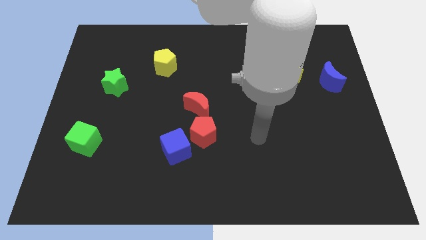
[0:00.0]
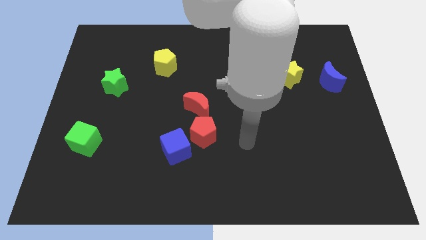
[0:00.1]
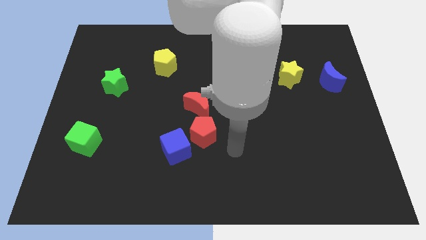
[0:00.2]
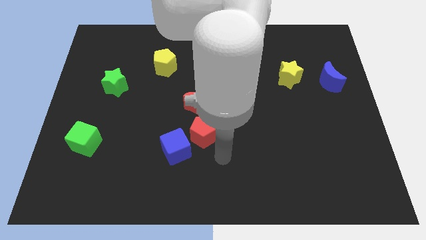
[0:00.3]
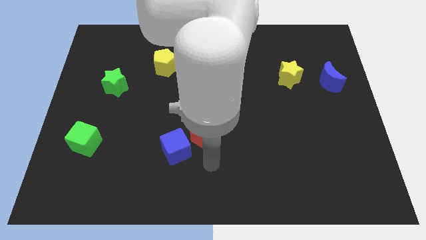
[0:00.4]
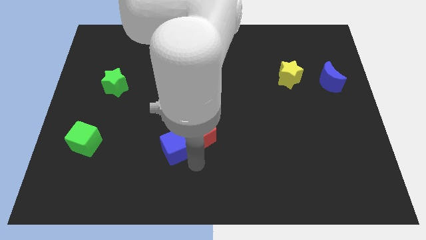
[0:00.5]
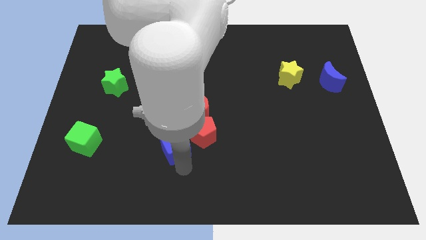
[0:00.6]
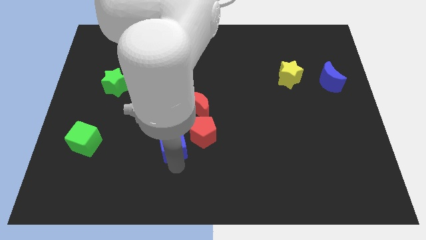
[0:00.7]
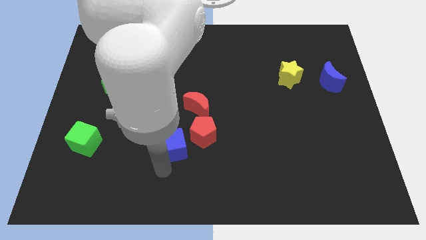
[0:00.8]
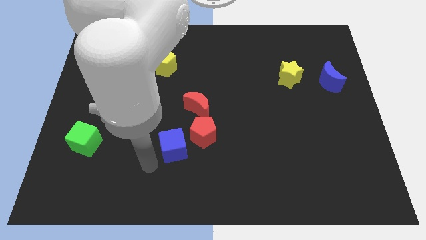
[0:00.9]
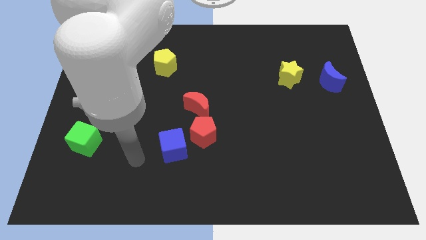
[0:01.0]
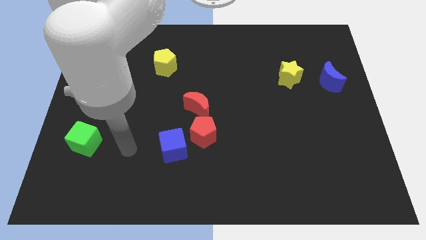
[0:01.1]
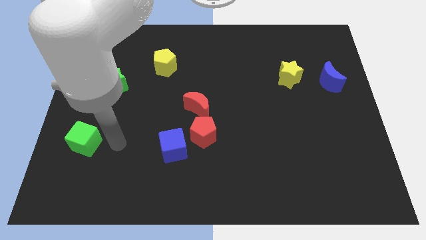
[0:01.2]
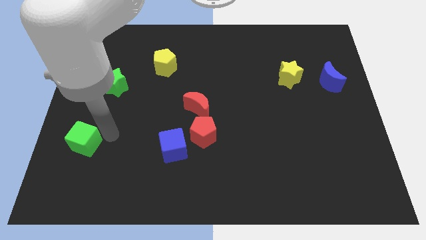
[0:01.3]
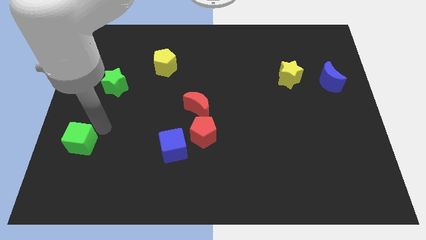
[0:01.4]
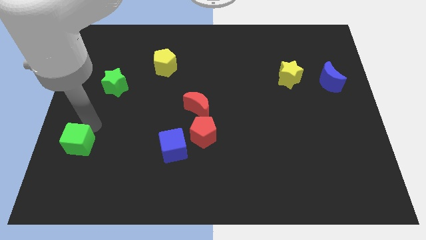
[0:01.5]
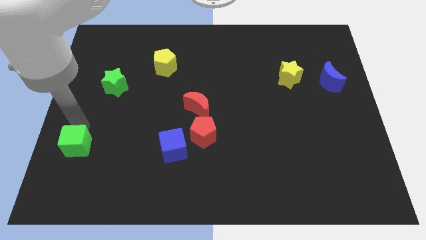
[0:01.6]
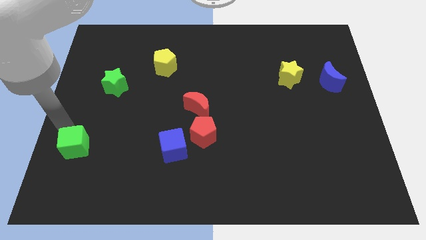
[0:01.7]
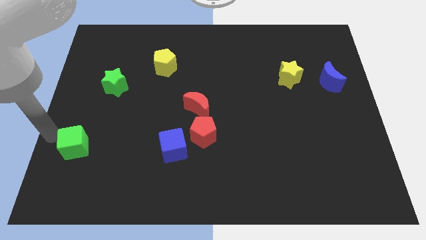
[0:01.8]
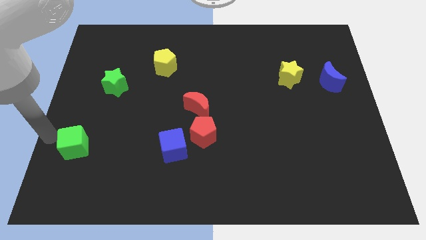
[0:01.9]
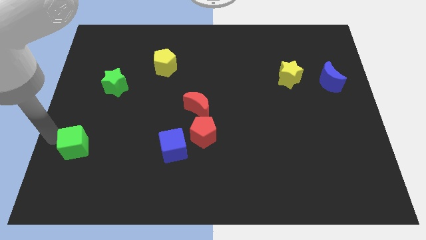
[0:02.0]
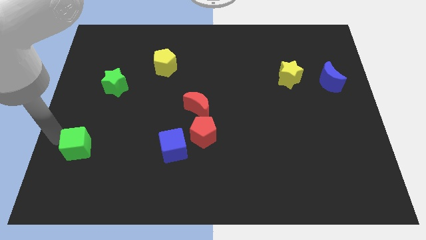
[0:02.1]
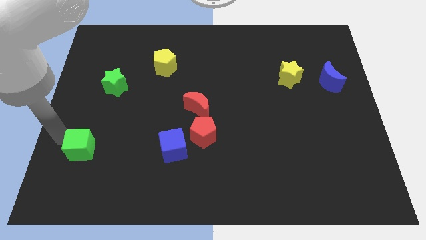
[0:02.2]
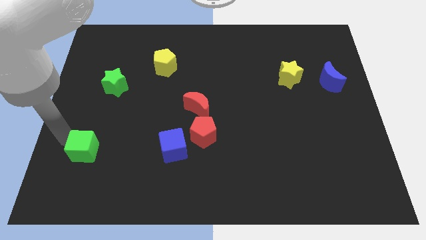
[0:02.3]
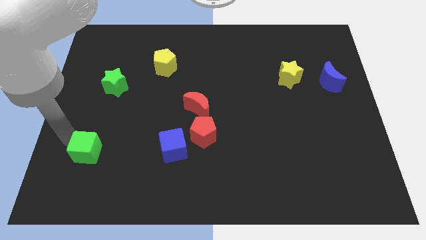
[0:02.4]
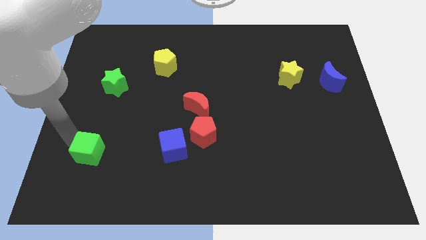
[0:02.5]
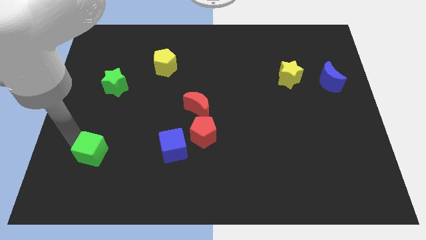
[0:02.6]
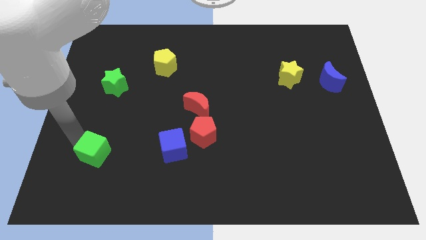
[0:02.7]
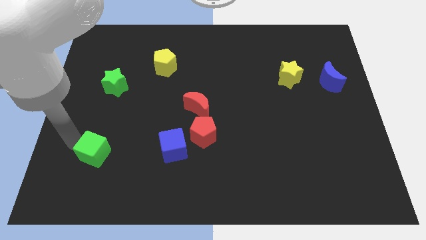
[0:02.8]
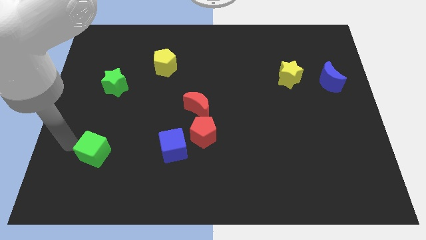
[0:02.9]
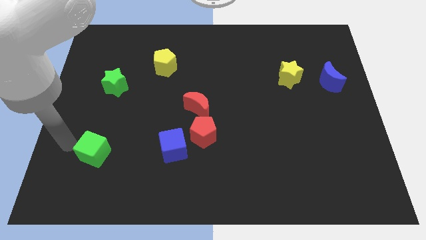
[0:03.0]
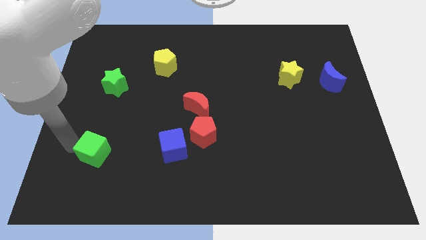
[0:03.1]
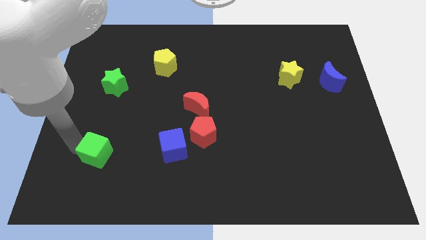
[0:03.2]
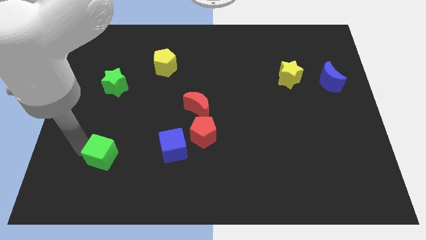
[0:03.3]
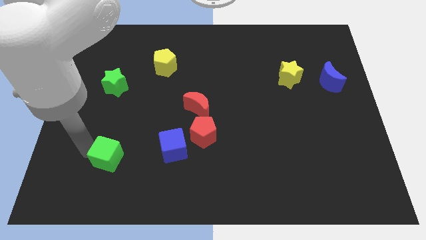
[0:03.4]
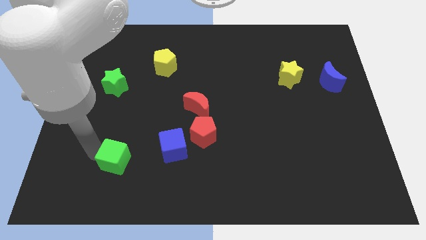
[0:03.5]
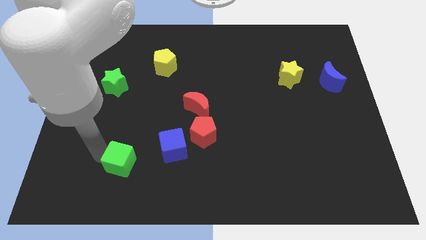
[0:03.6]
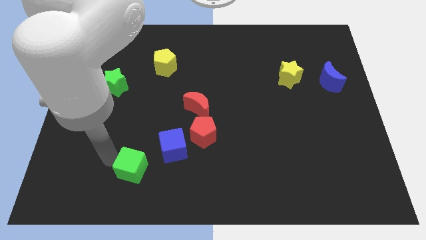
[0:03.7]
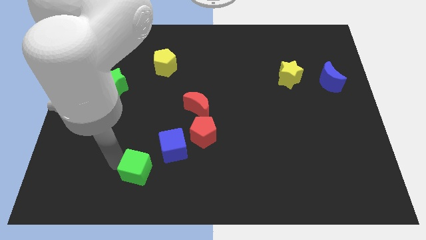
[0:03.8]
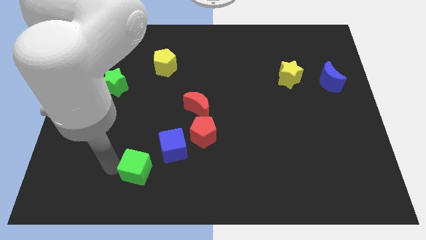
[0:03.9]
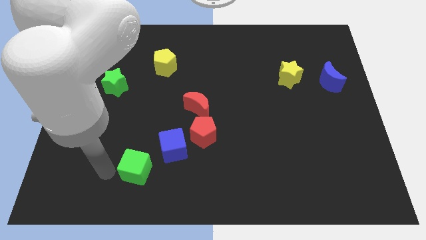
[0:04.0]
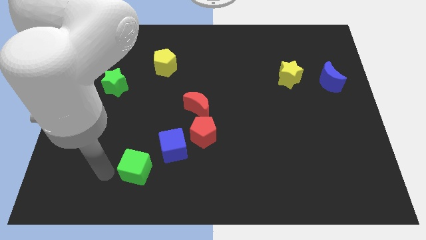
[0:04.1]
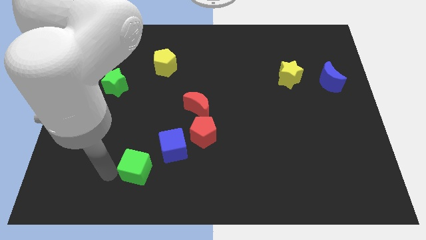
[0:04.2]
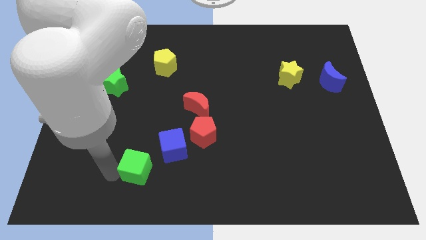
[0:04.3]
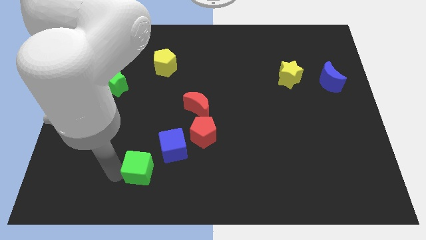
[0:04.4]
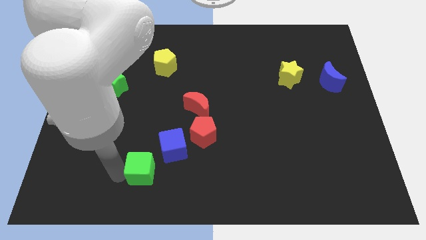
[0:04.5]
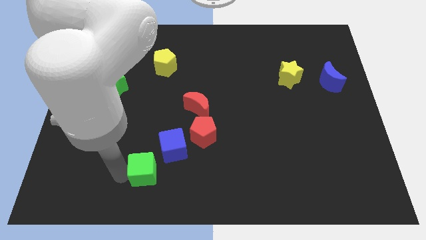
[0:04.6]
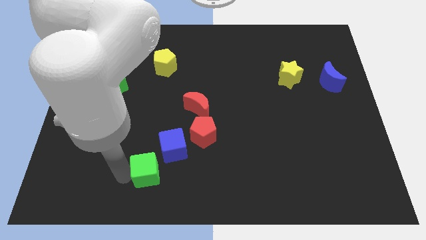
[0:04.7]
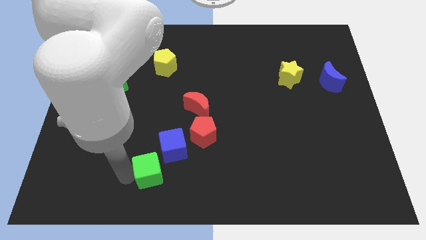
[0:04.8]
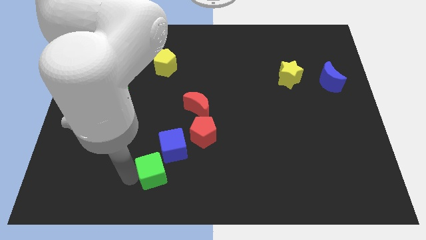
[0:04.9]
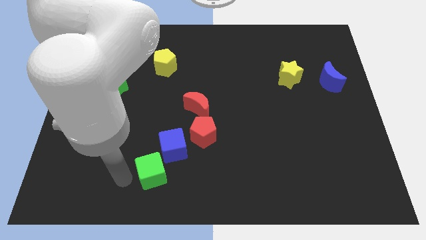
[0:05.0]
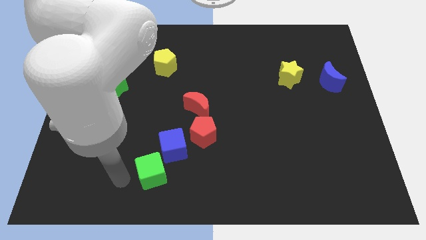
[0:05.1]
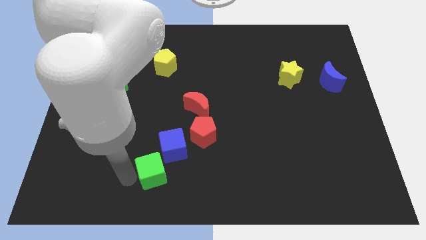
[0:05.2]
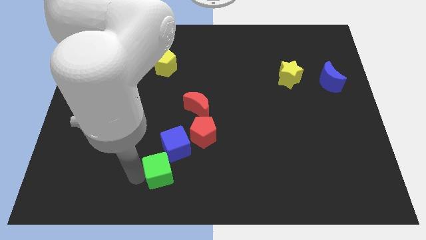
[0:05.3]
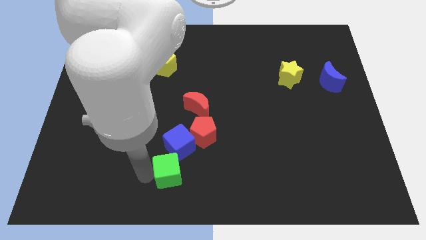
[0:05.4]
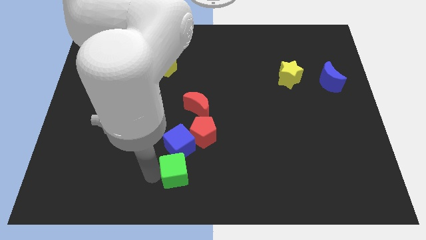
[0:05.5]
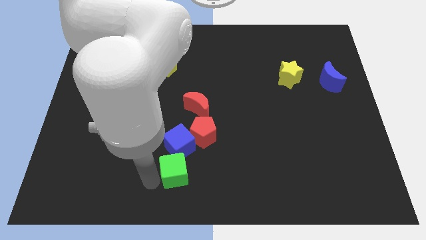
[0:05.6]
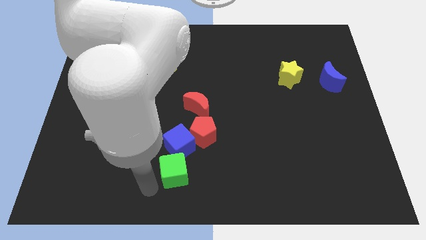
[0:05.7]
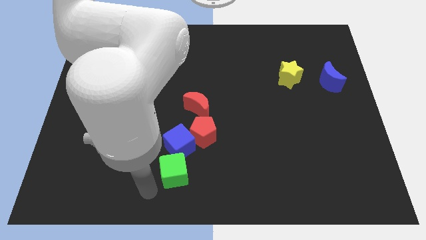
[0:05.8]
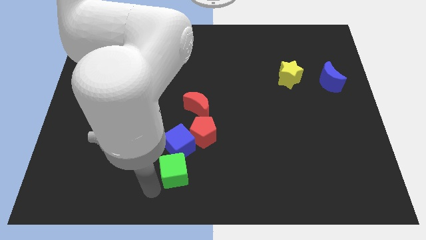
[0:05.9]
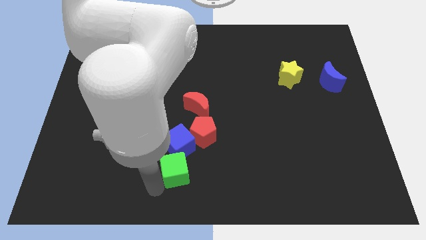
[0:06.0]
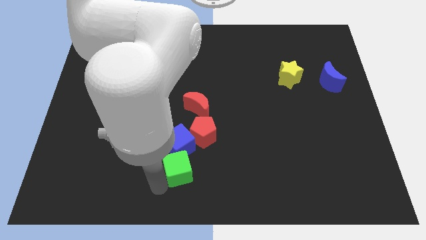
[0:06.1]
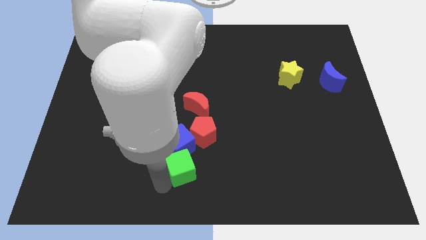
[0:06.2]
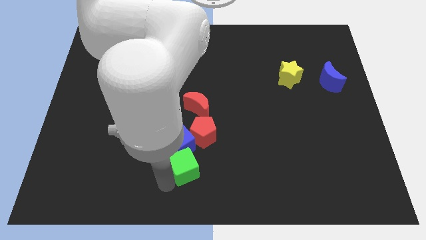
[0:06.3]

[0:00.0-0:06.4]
move the green cube to the right

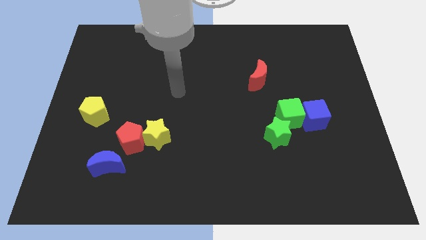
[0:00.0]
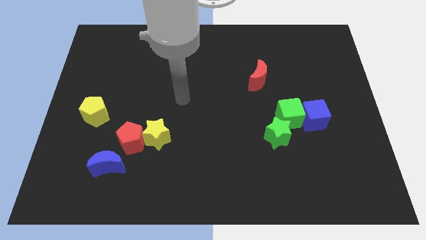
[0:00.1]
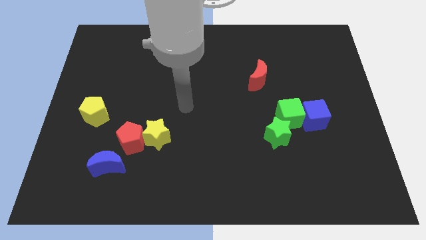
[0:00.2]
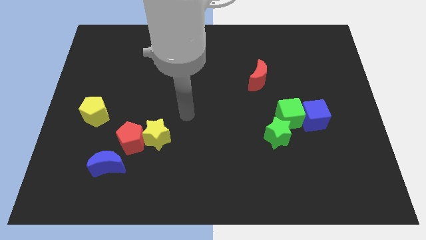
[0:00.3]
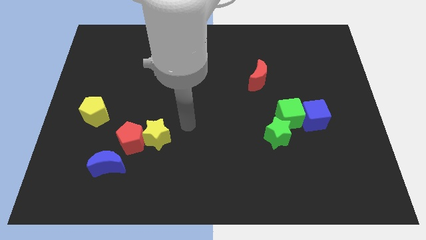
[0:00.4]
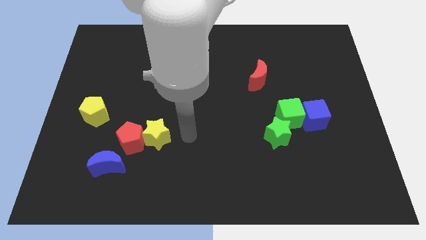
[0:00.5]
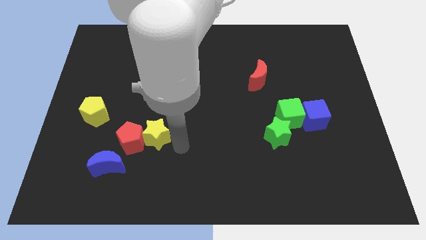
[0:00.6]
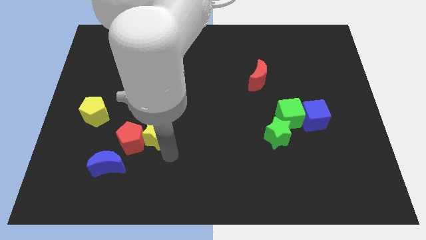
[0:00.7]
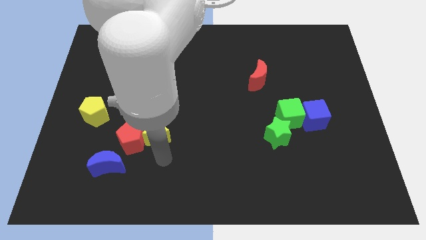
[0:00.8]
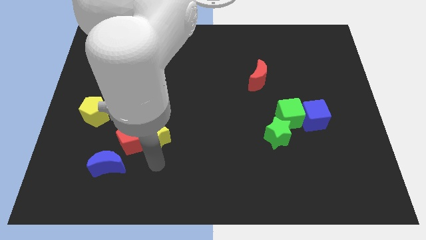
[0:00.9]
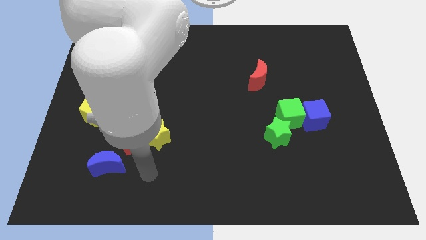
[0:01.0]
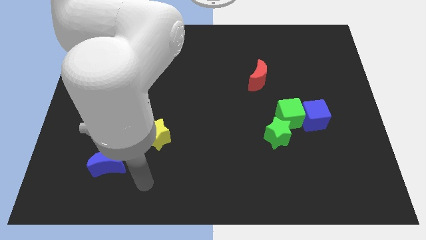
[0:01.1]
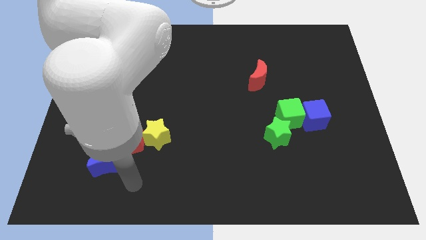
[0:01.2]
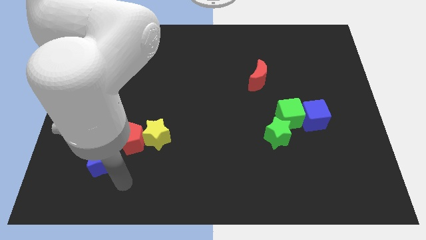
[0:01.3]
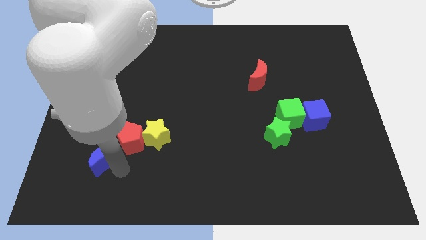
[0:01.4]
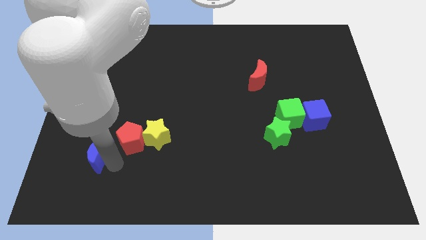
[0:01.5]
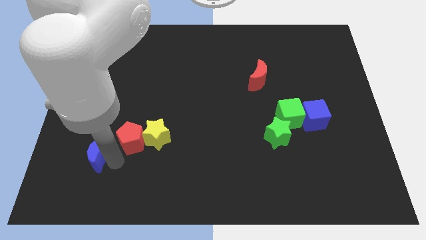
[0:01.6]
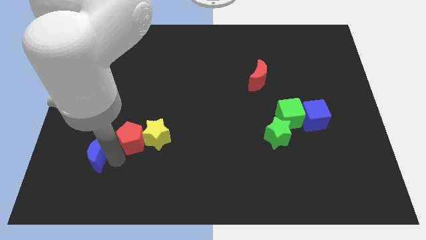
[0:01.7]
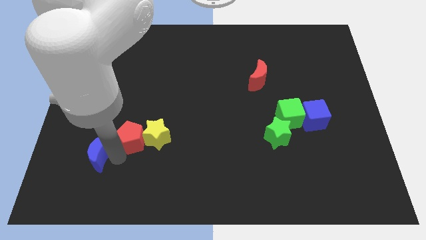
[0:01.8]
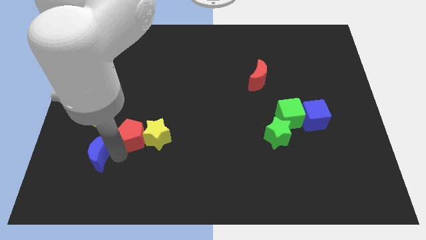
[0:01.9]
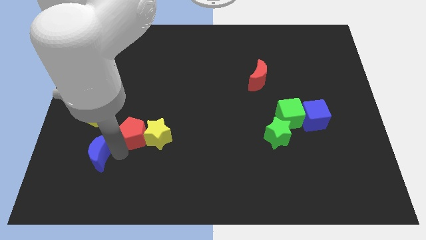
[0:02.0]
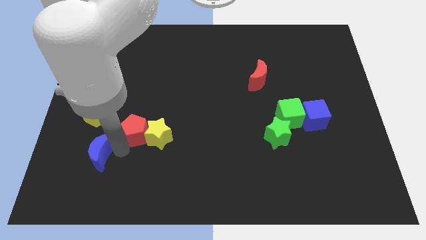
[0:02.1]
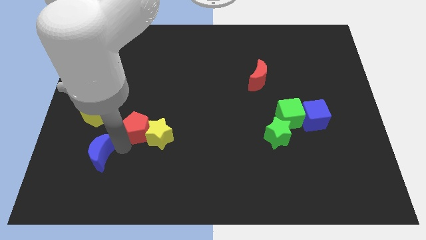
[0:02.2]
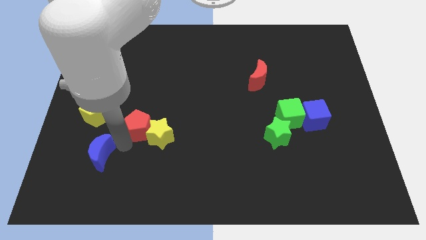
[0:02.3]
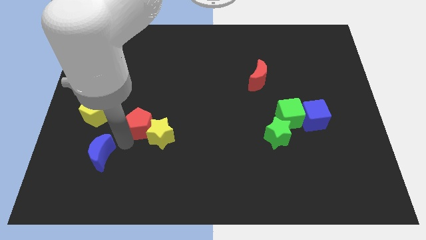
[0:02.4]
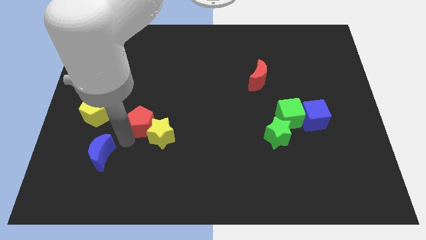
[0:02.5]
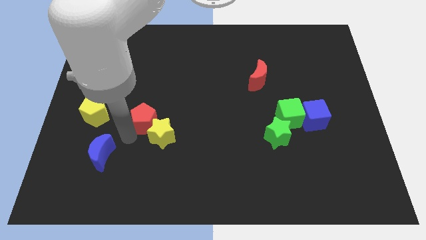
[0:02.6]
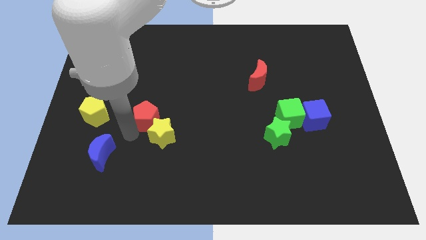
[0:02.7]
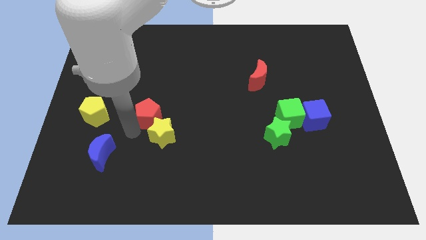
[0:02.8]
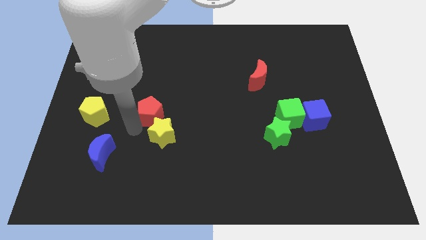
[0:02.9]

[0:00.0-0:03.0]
move the red pentagon a bit diagonally upwards and right
